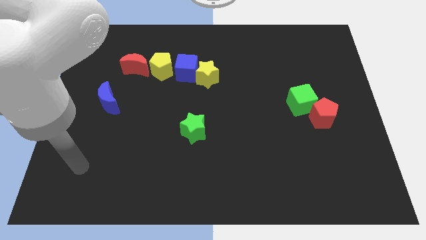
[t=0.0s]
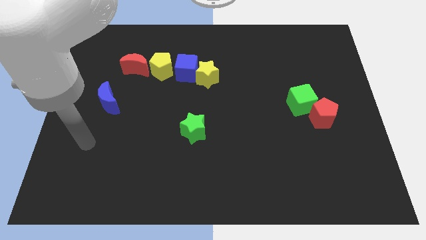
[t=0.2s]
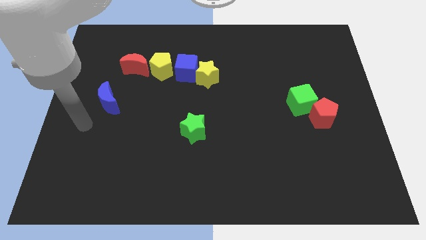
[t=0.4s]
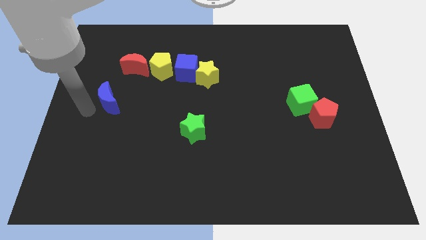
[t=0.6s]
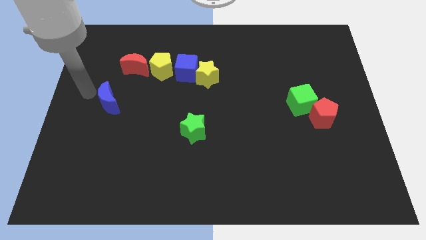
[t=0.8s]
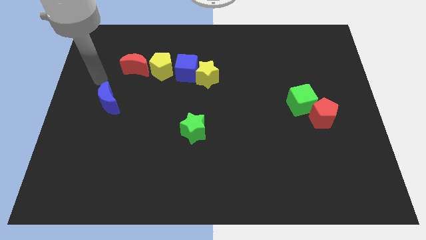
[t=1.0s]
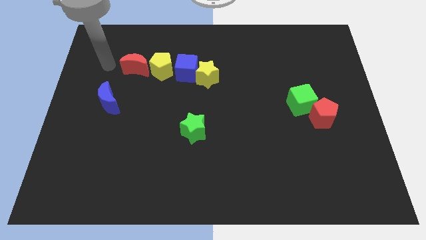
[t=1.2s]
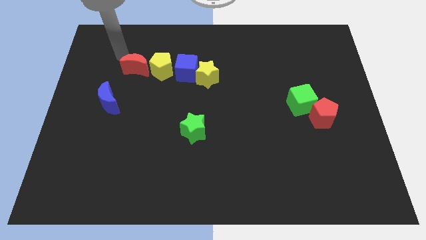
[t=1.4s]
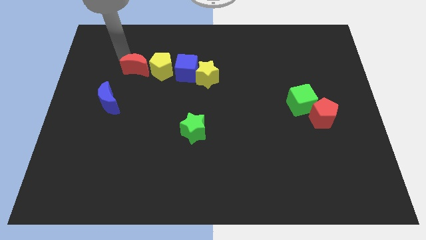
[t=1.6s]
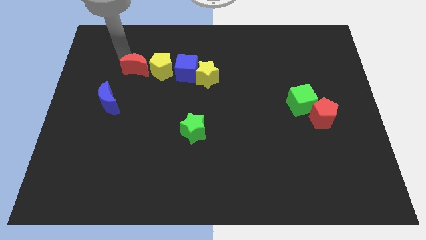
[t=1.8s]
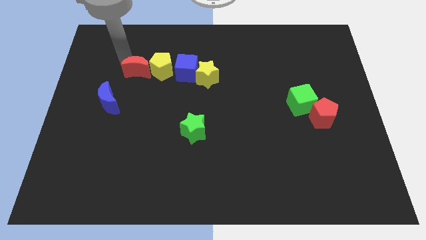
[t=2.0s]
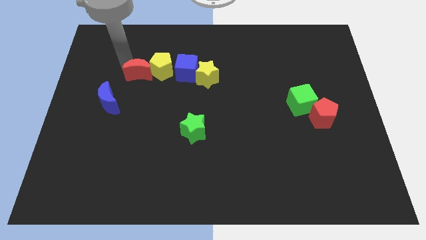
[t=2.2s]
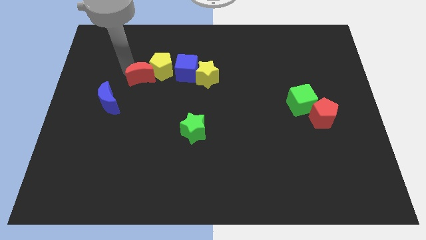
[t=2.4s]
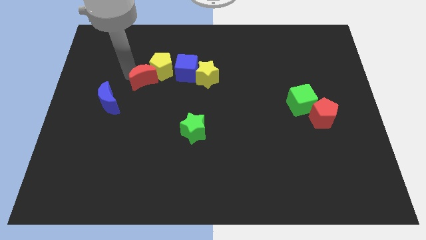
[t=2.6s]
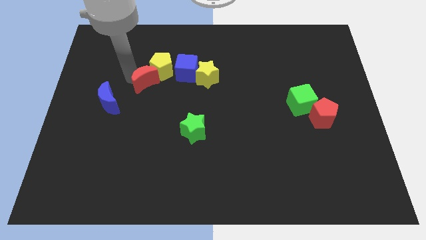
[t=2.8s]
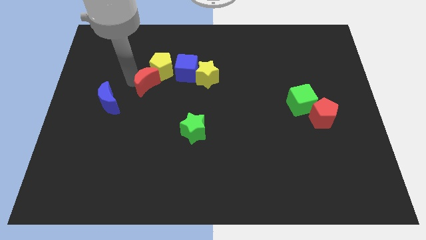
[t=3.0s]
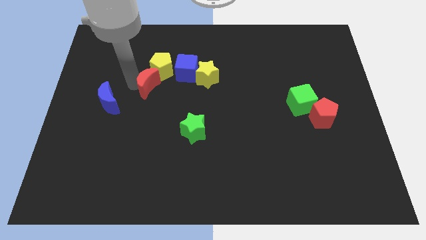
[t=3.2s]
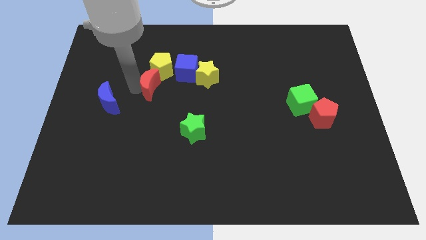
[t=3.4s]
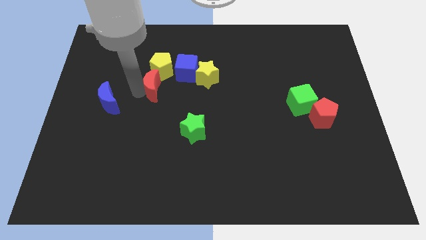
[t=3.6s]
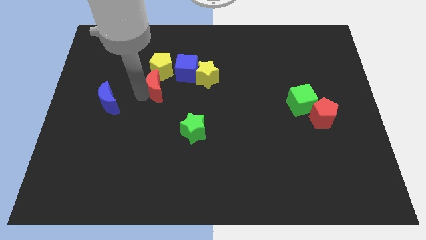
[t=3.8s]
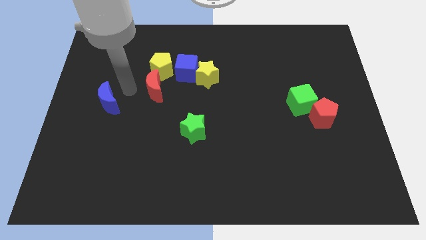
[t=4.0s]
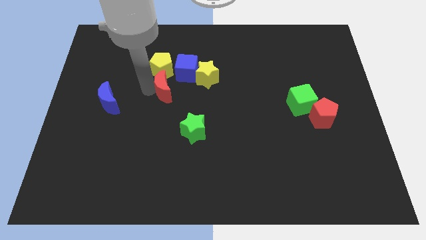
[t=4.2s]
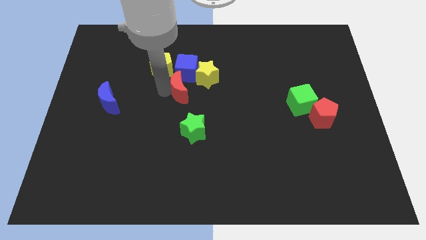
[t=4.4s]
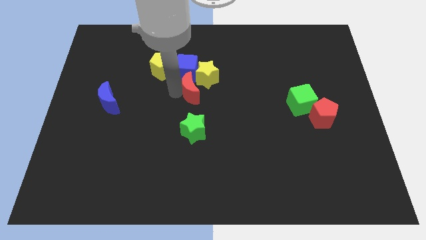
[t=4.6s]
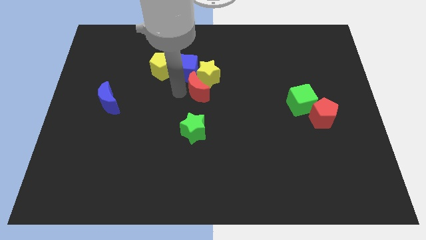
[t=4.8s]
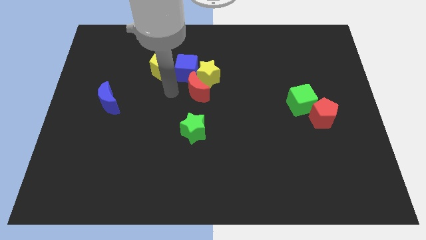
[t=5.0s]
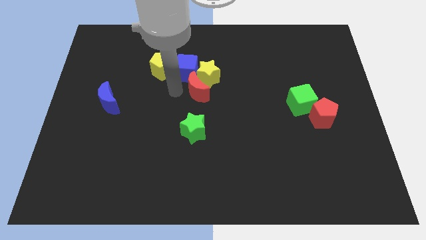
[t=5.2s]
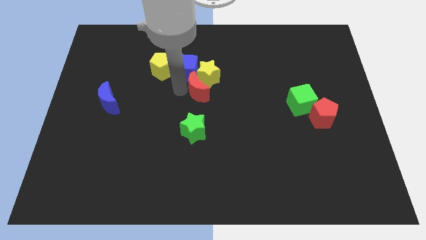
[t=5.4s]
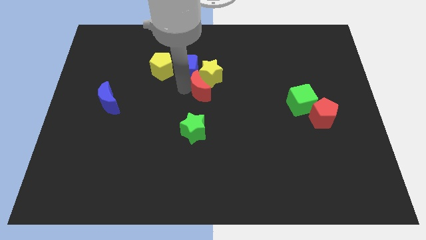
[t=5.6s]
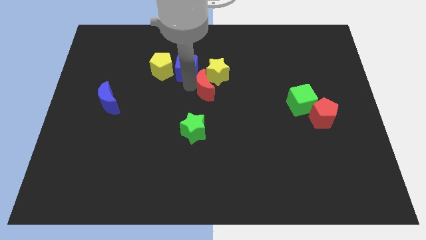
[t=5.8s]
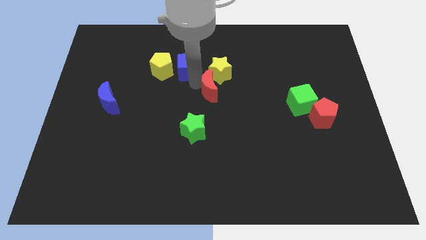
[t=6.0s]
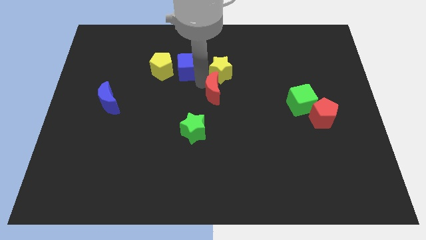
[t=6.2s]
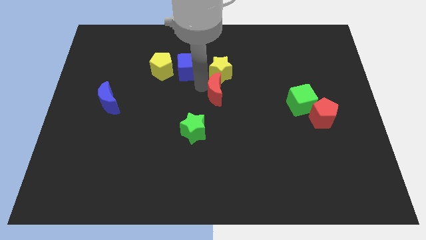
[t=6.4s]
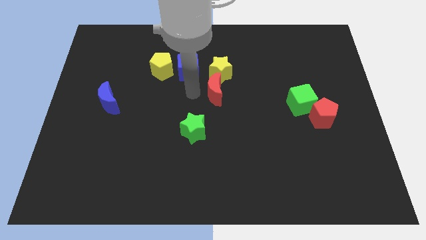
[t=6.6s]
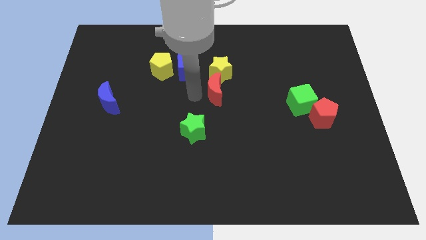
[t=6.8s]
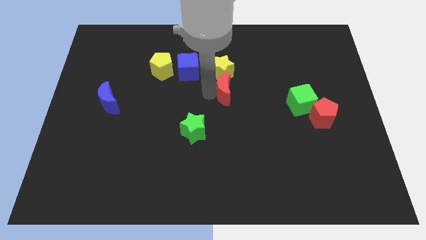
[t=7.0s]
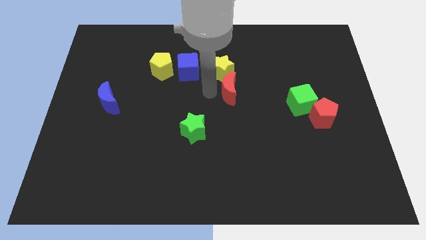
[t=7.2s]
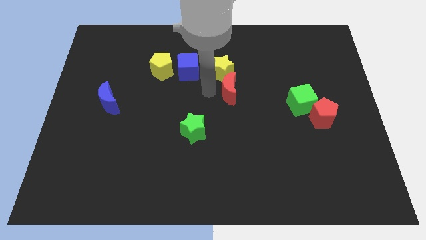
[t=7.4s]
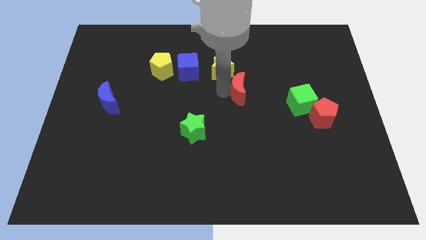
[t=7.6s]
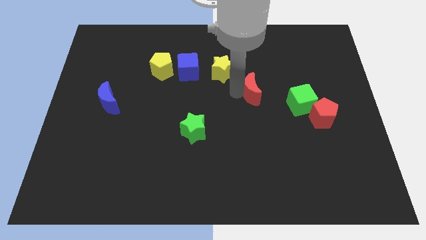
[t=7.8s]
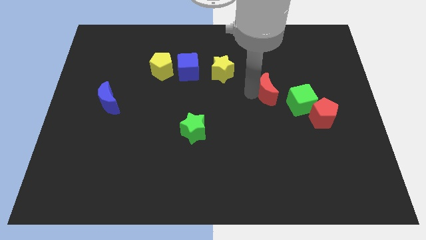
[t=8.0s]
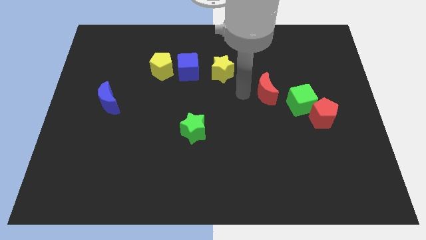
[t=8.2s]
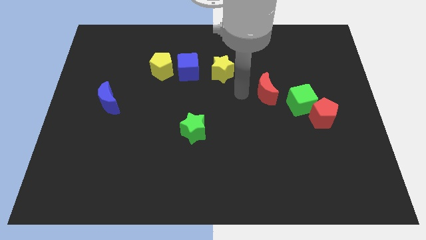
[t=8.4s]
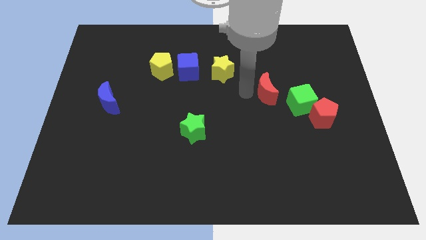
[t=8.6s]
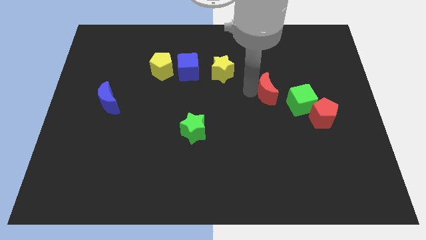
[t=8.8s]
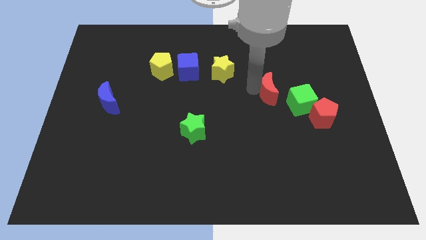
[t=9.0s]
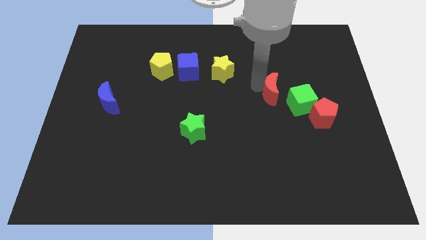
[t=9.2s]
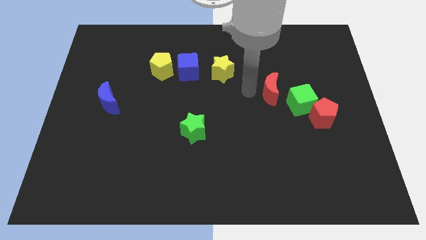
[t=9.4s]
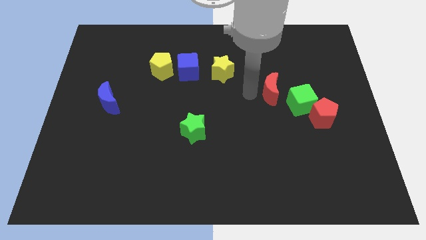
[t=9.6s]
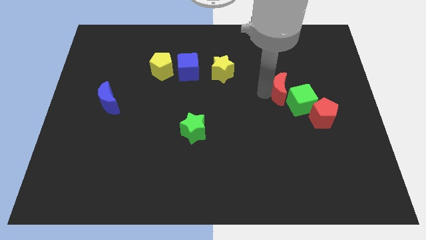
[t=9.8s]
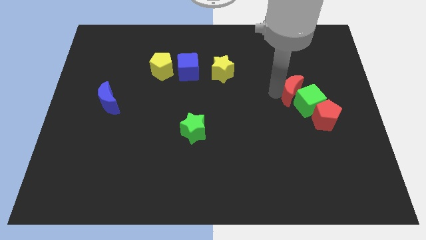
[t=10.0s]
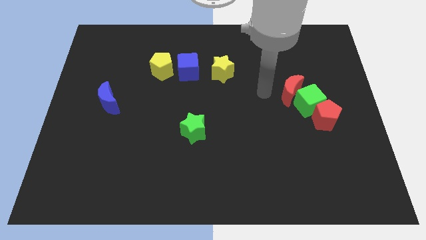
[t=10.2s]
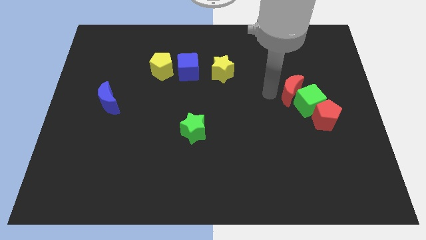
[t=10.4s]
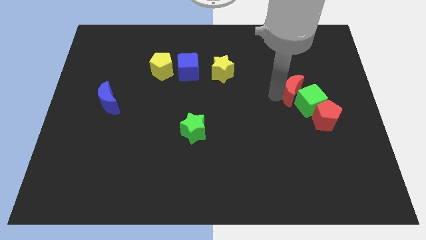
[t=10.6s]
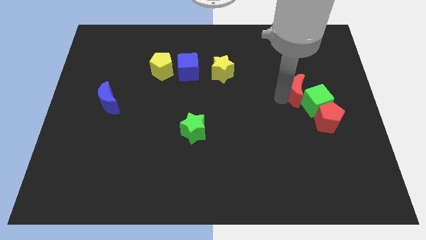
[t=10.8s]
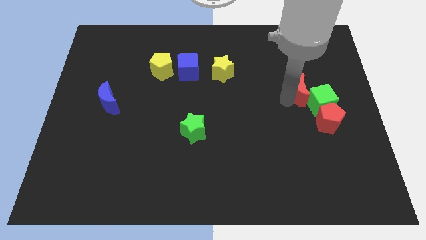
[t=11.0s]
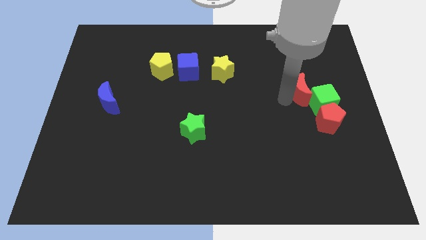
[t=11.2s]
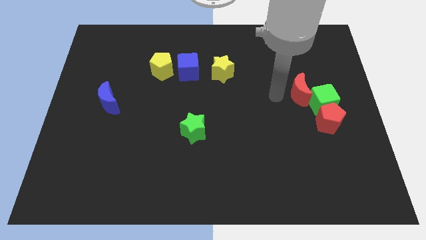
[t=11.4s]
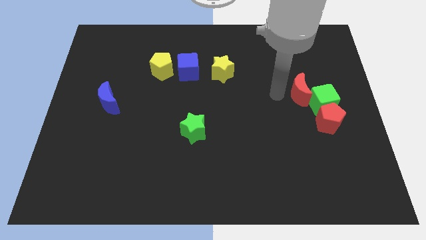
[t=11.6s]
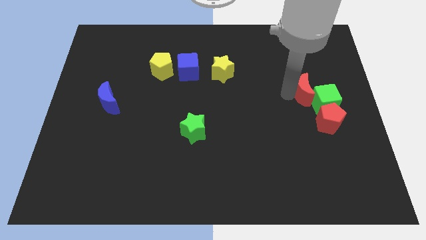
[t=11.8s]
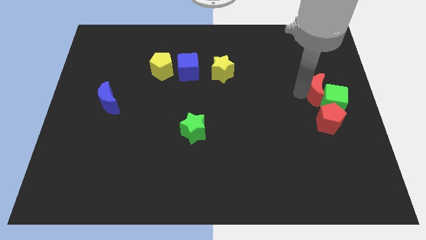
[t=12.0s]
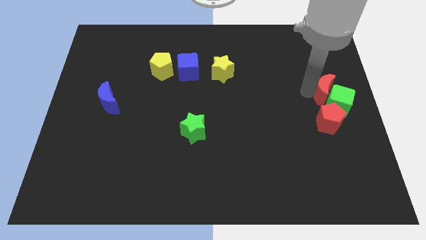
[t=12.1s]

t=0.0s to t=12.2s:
slide the red moon to the right side of the board

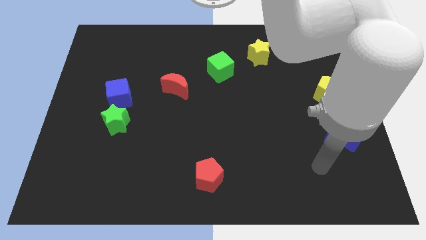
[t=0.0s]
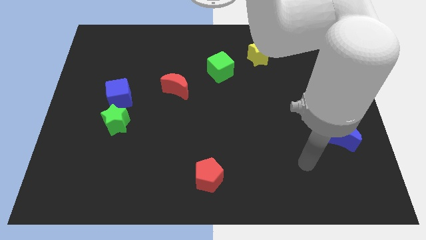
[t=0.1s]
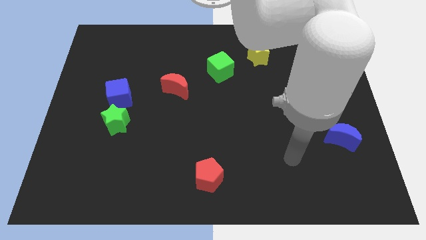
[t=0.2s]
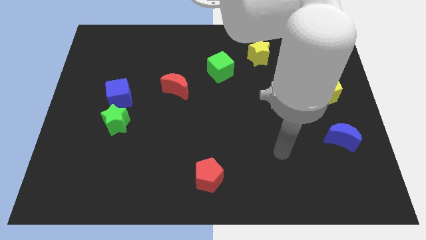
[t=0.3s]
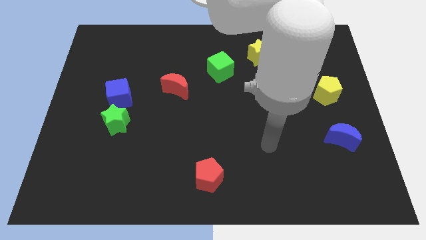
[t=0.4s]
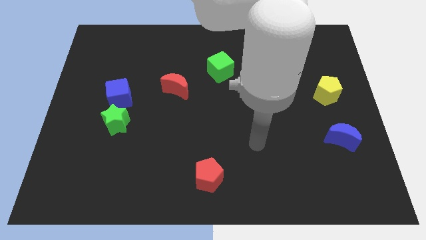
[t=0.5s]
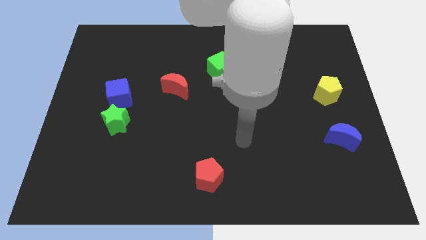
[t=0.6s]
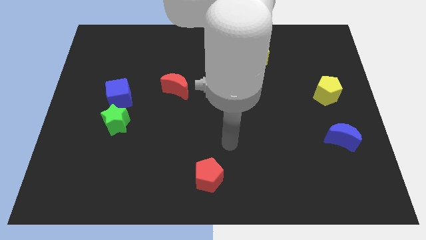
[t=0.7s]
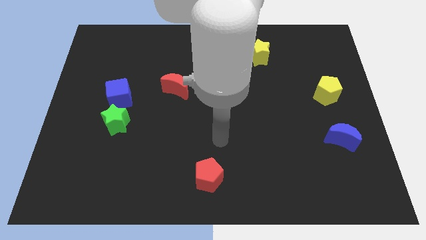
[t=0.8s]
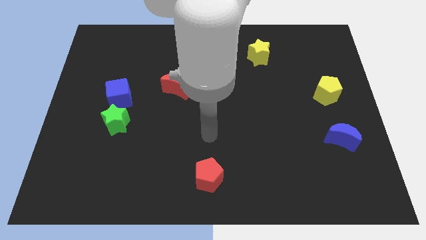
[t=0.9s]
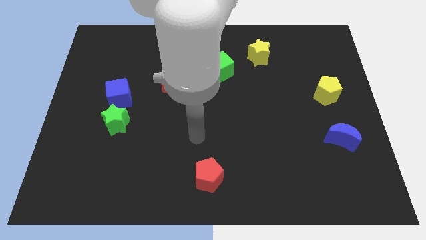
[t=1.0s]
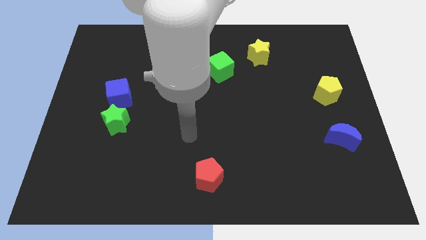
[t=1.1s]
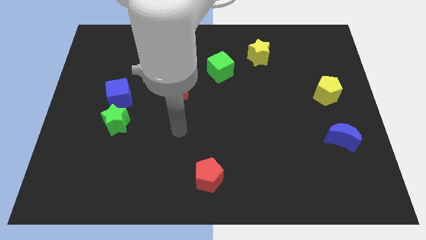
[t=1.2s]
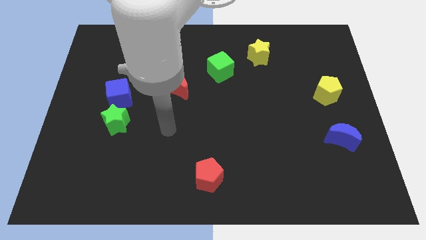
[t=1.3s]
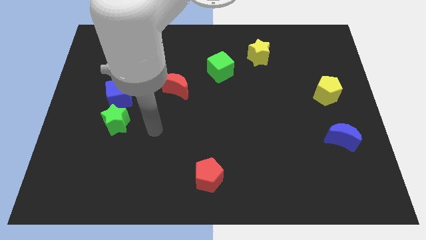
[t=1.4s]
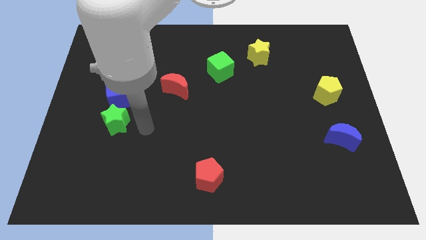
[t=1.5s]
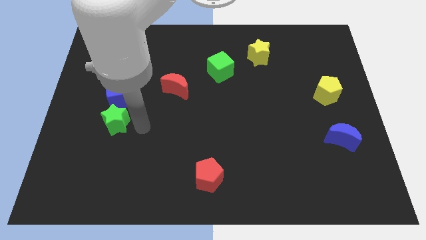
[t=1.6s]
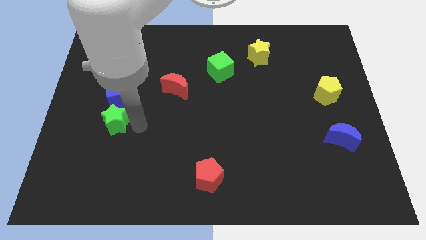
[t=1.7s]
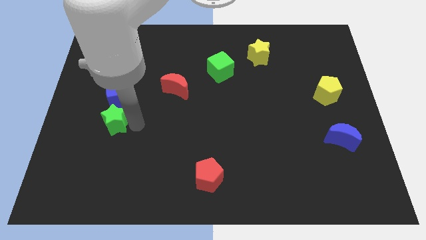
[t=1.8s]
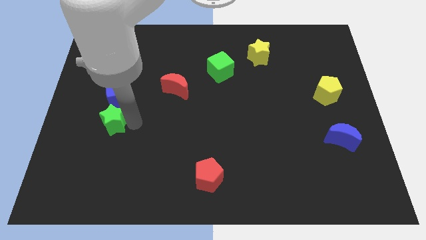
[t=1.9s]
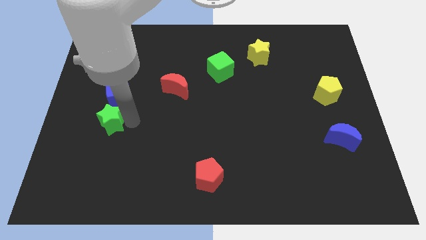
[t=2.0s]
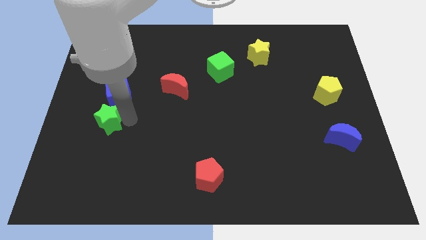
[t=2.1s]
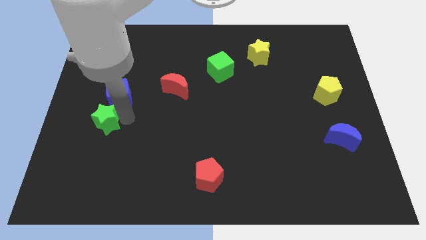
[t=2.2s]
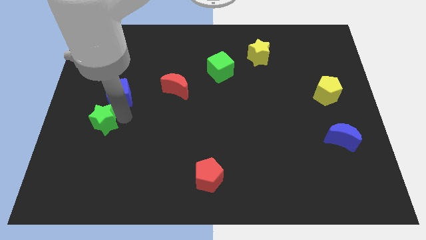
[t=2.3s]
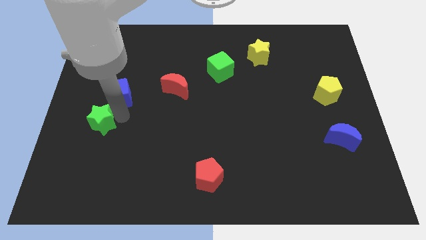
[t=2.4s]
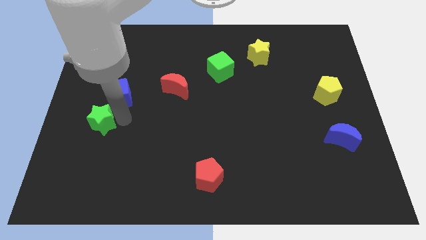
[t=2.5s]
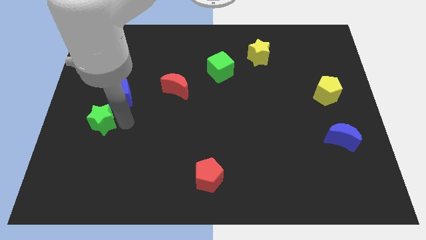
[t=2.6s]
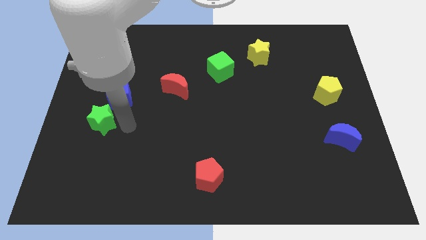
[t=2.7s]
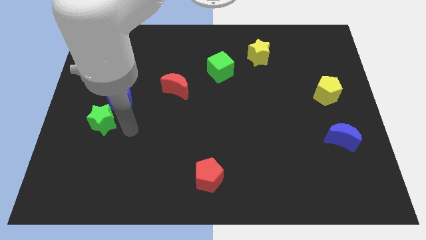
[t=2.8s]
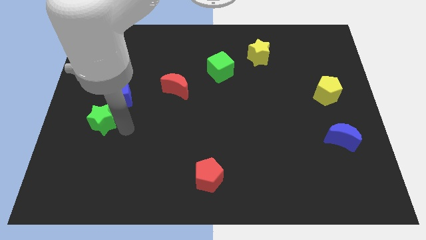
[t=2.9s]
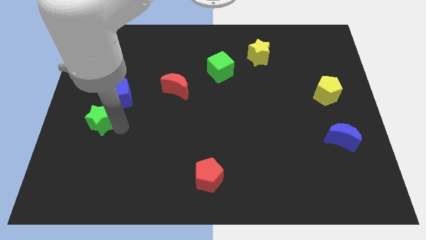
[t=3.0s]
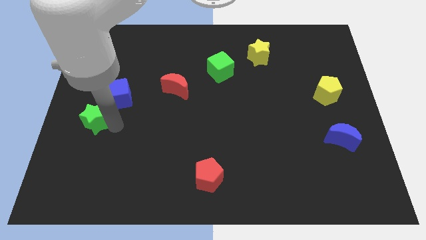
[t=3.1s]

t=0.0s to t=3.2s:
put the green star to the left side of the board
